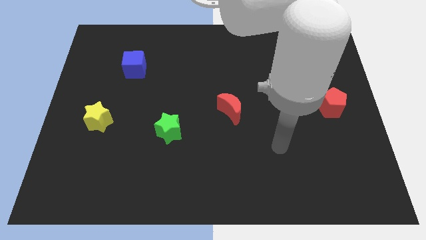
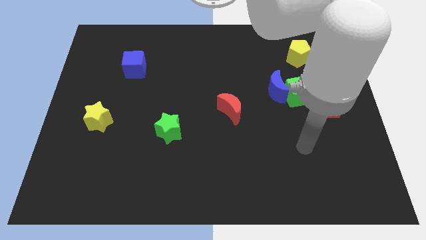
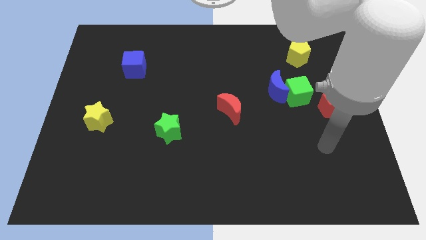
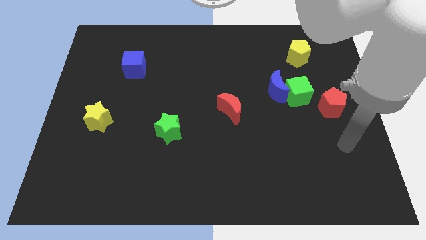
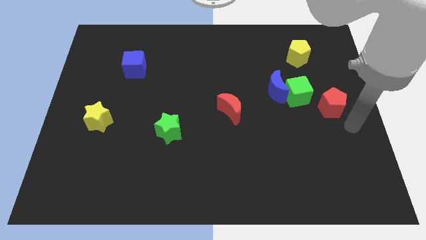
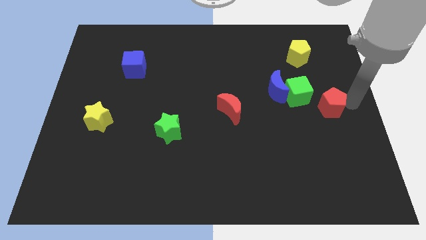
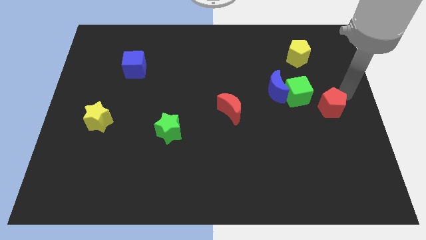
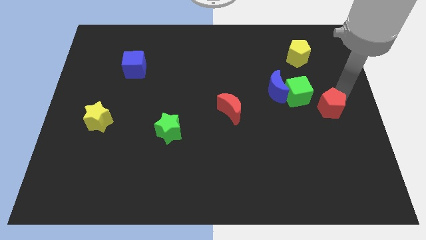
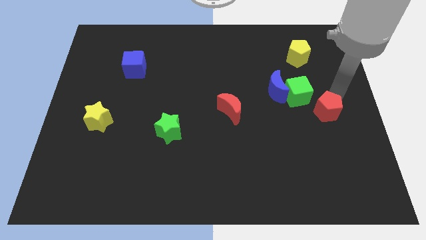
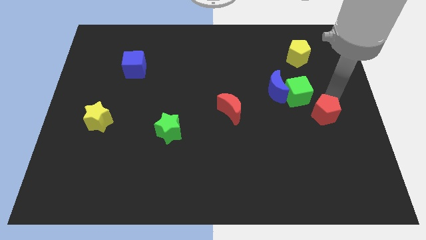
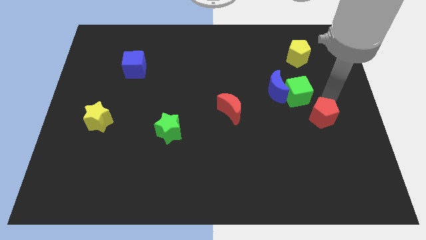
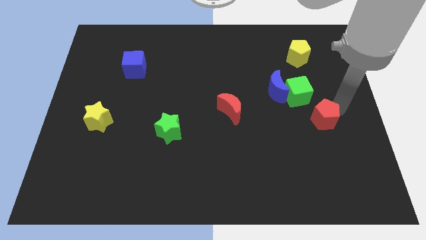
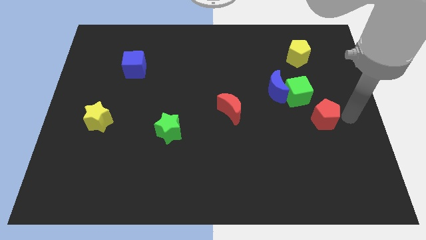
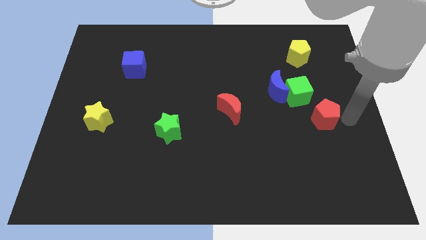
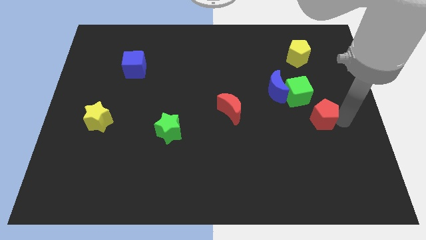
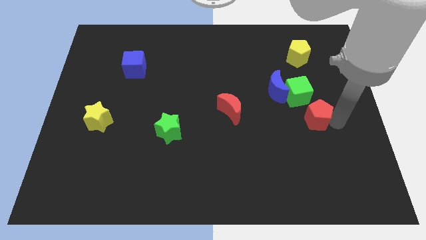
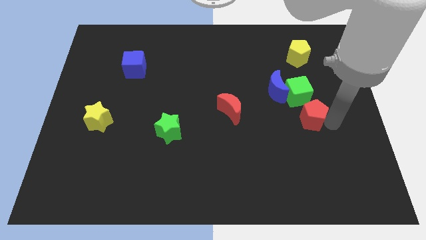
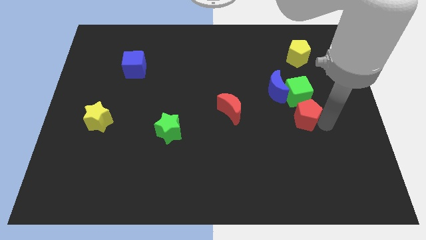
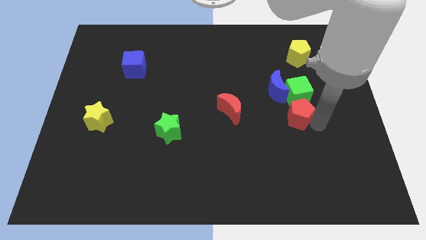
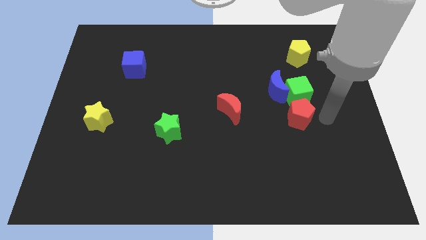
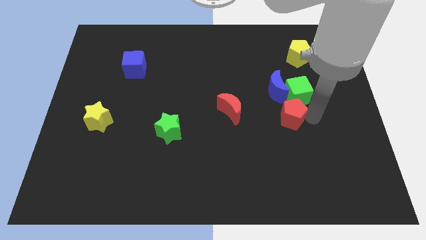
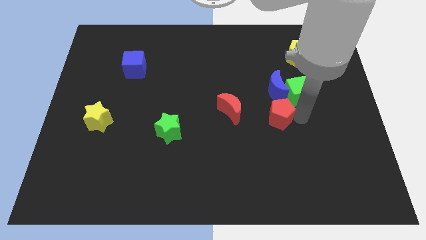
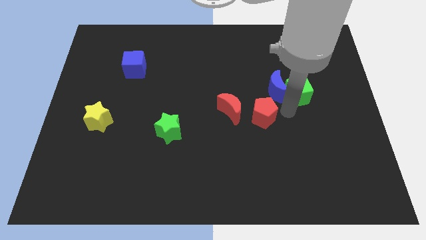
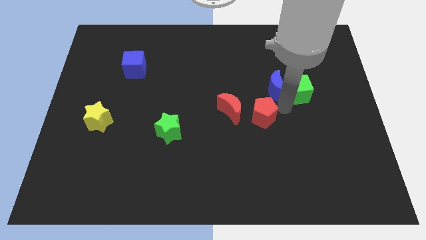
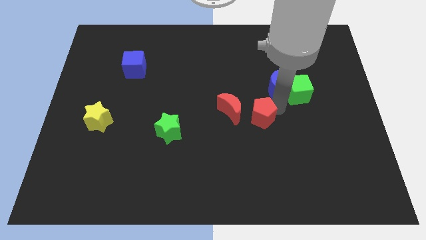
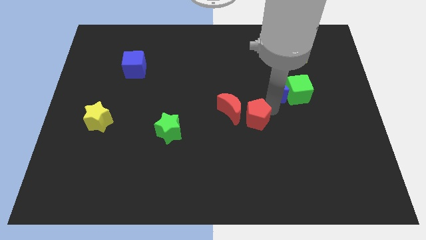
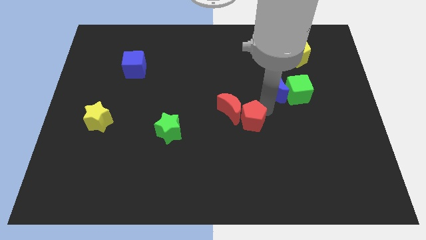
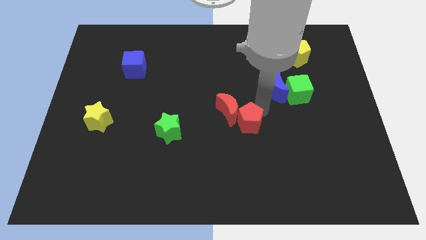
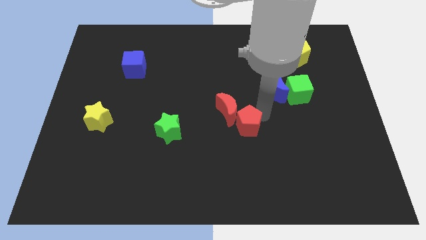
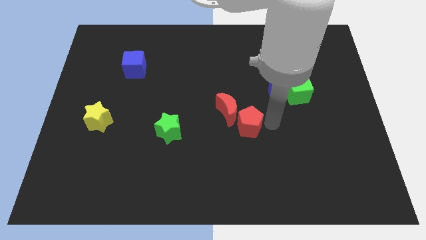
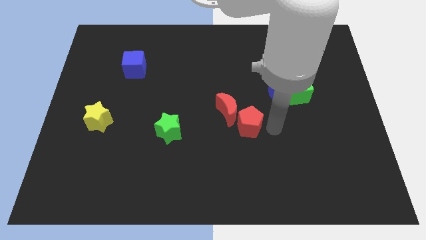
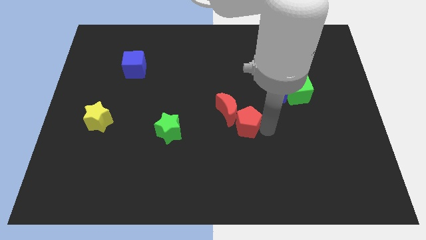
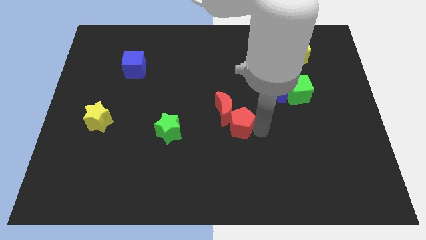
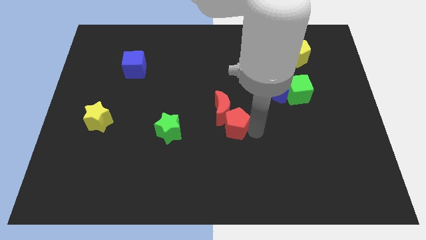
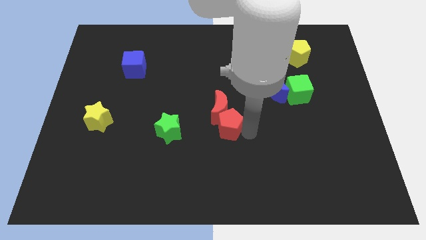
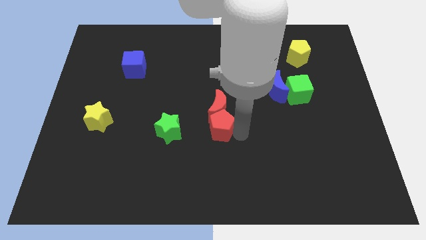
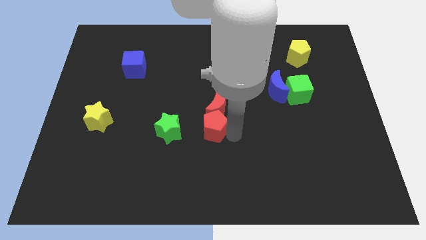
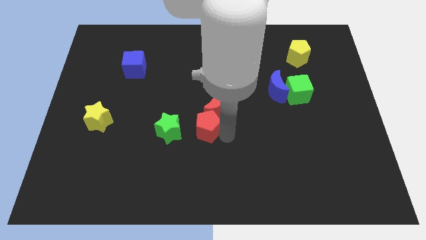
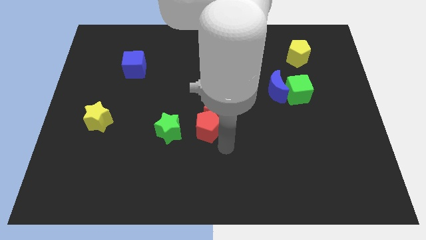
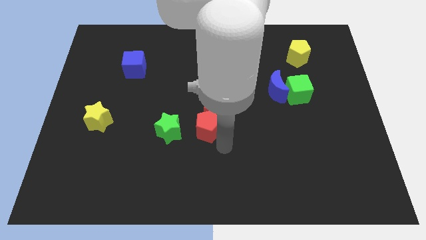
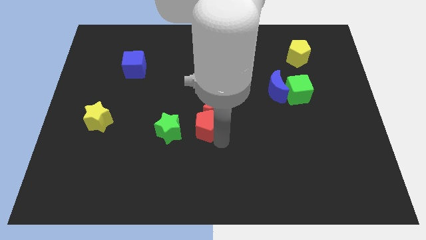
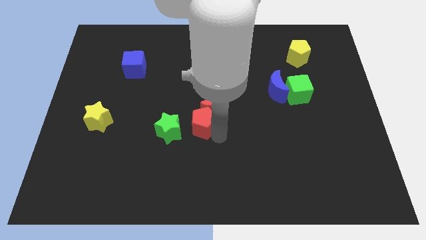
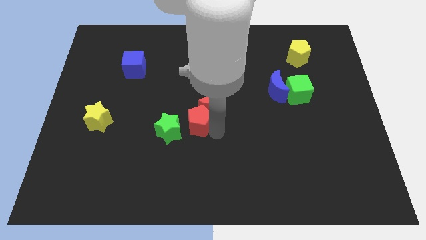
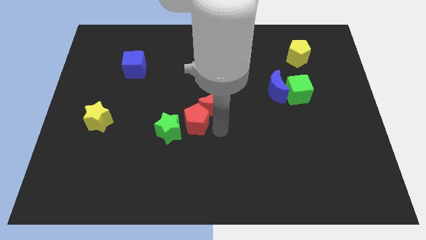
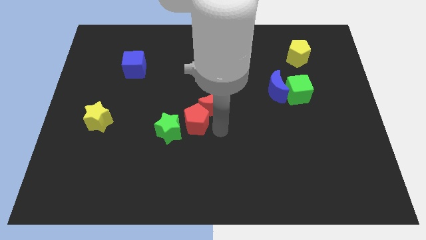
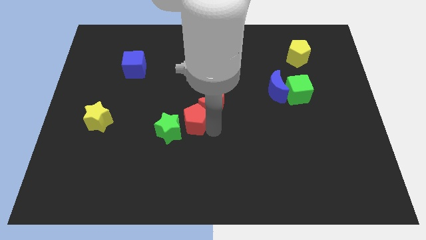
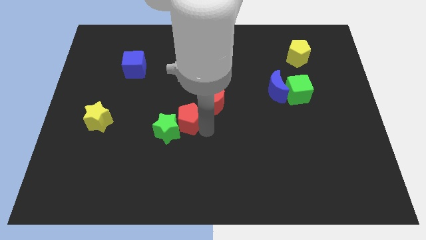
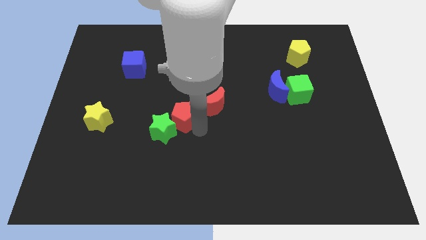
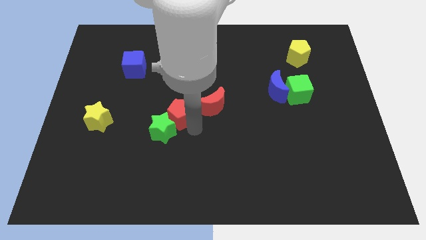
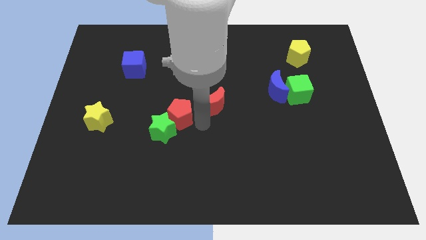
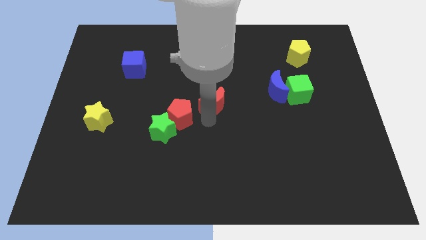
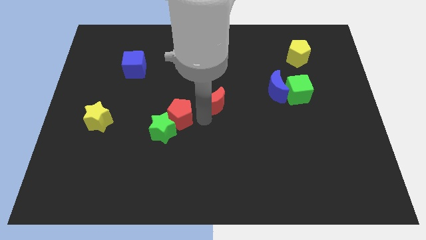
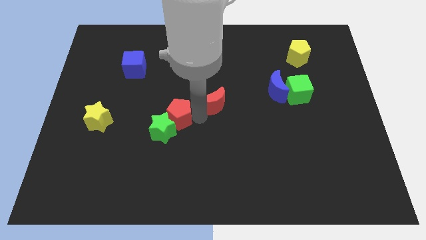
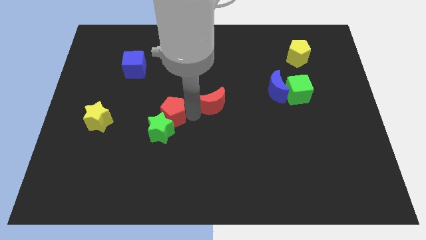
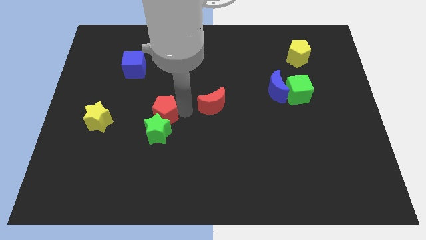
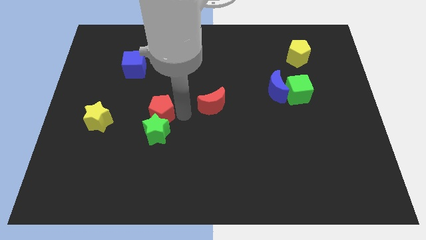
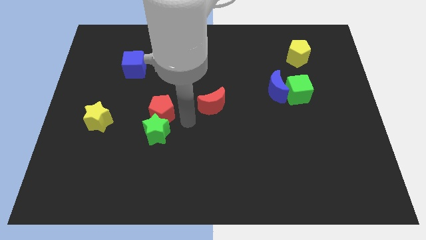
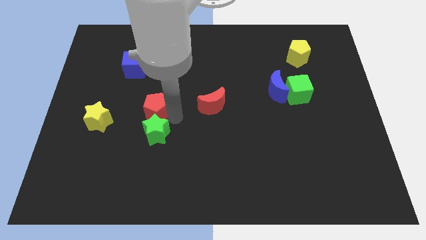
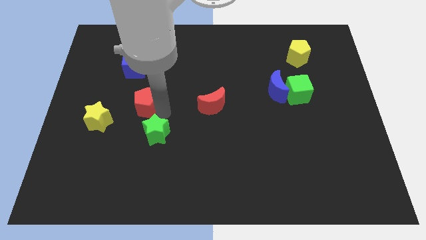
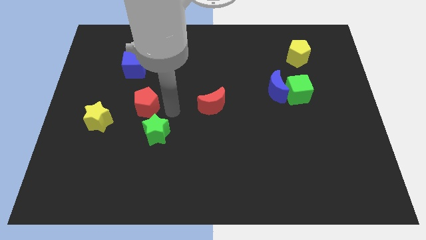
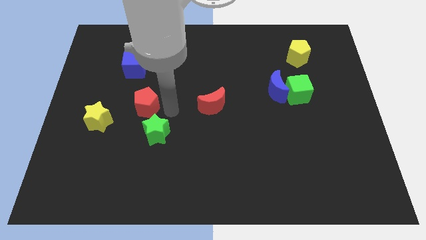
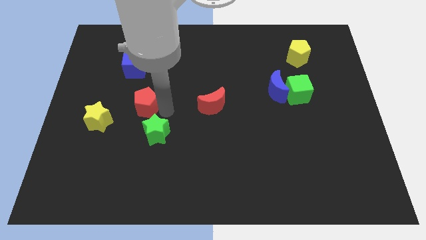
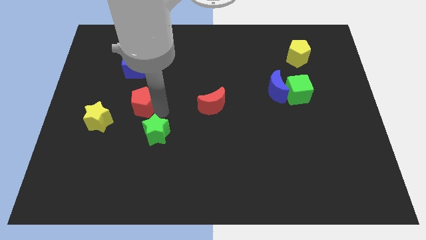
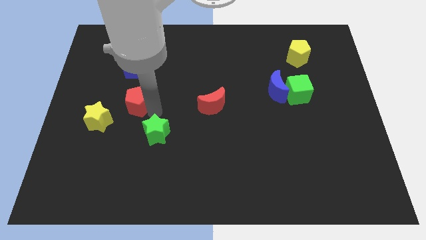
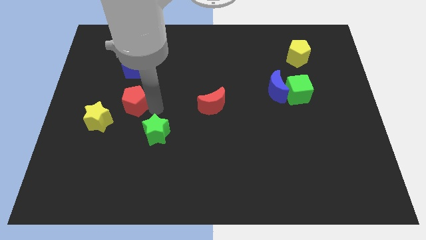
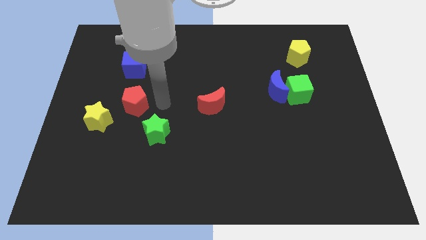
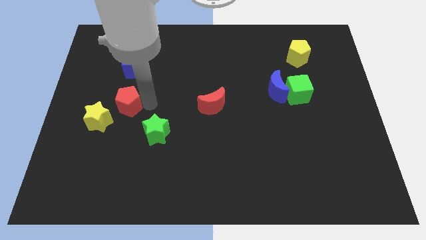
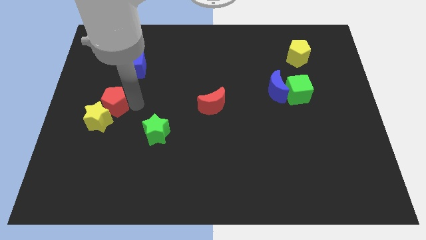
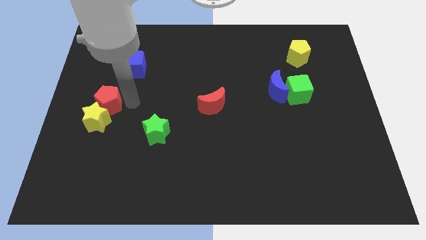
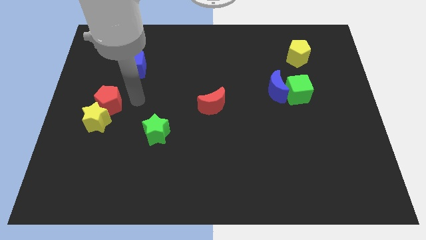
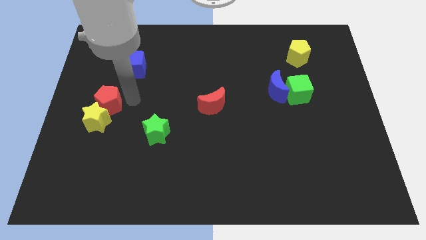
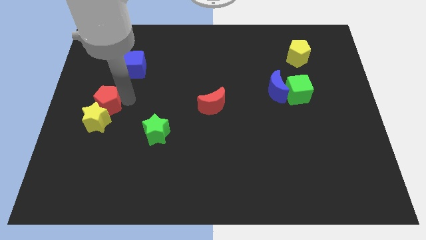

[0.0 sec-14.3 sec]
move the red pentagon to the left side of the board
